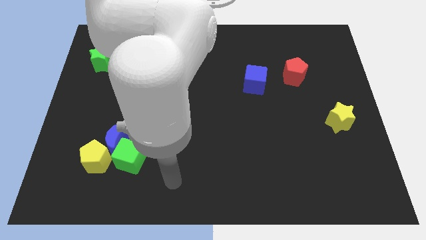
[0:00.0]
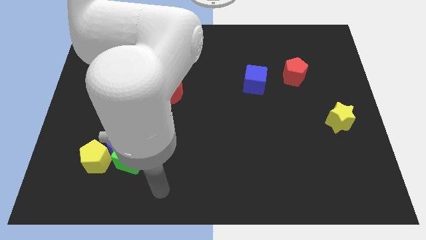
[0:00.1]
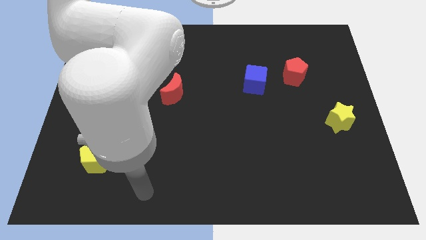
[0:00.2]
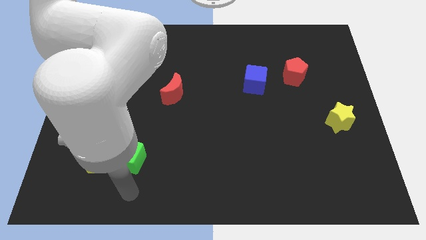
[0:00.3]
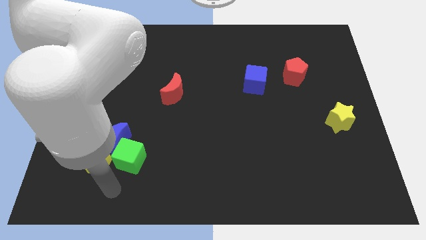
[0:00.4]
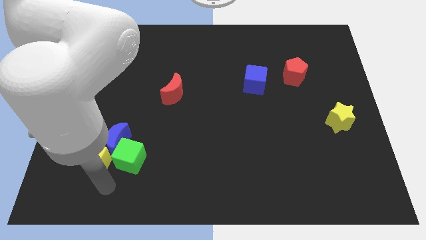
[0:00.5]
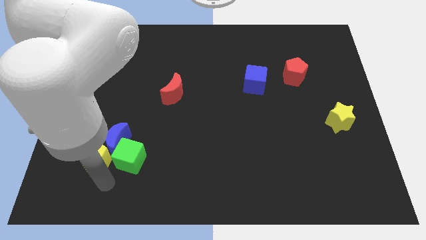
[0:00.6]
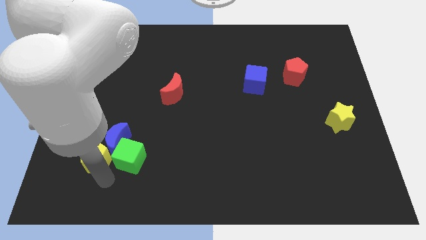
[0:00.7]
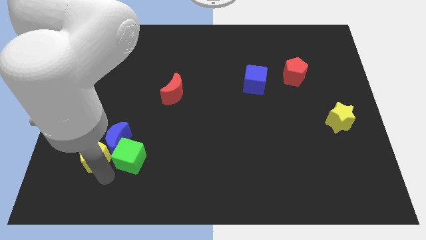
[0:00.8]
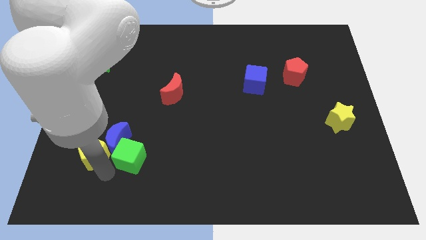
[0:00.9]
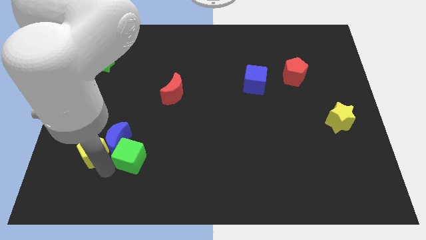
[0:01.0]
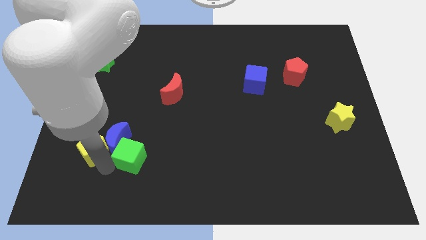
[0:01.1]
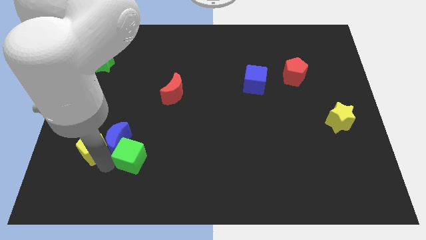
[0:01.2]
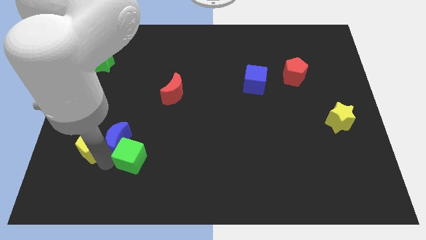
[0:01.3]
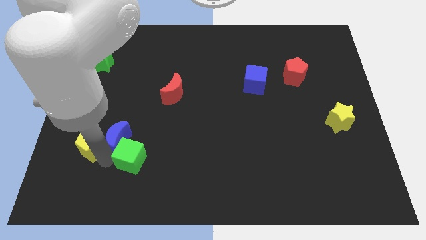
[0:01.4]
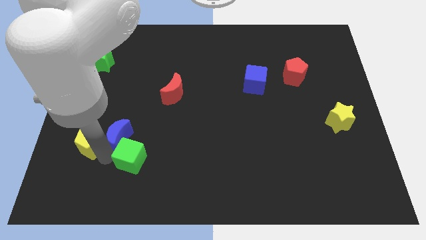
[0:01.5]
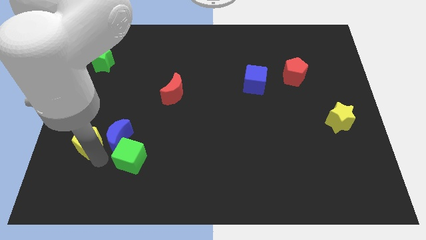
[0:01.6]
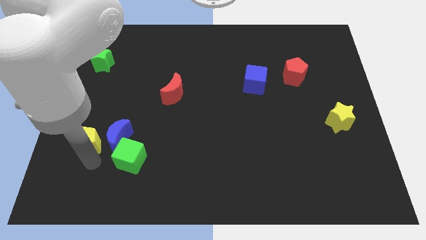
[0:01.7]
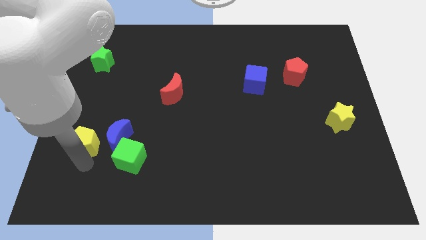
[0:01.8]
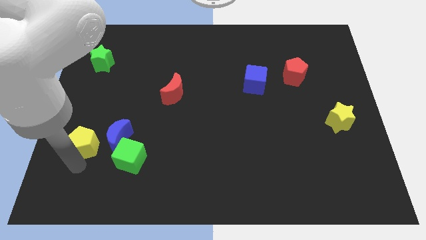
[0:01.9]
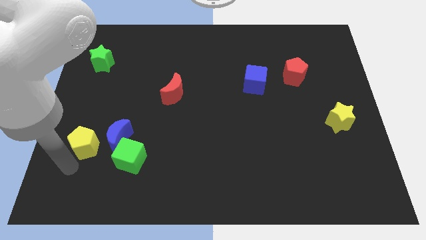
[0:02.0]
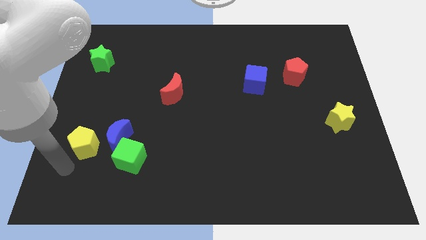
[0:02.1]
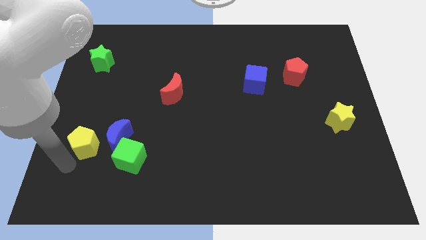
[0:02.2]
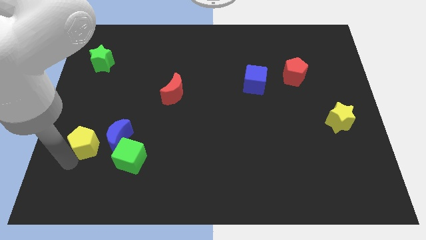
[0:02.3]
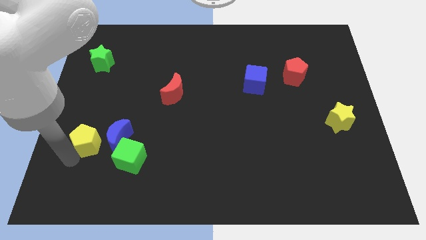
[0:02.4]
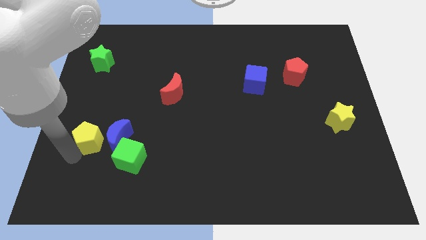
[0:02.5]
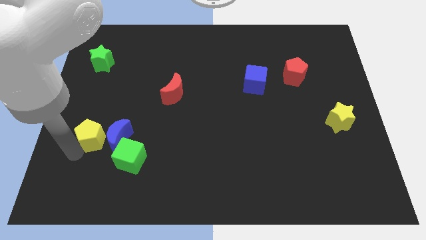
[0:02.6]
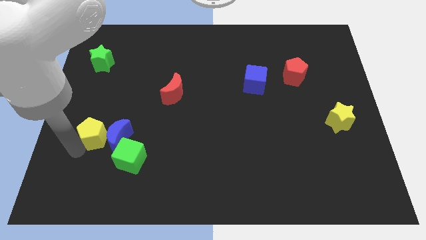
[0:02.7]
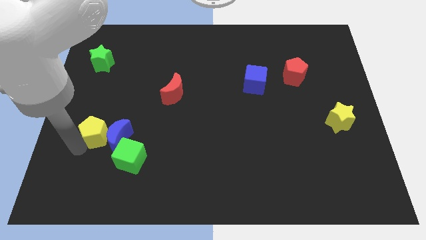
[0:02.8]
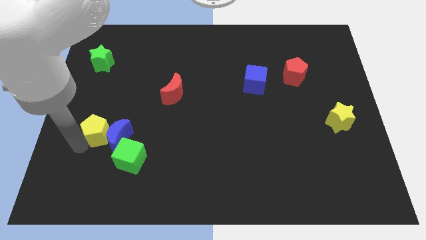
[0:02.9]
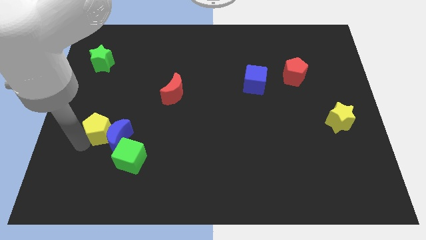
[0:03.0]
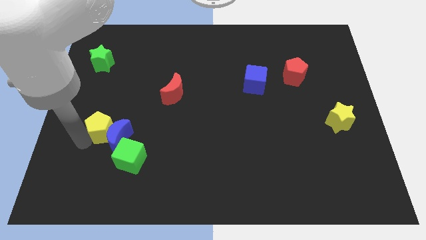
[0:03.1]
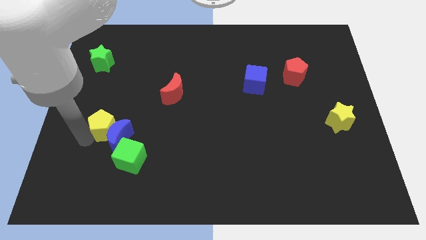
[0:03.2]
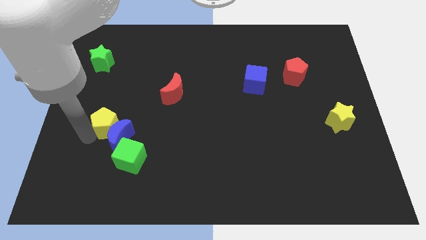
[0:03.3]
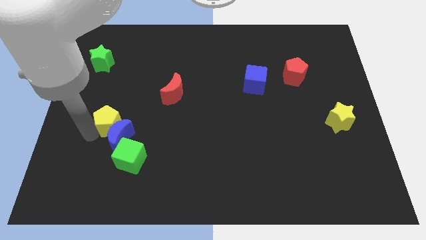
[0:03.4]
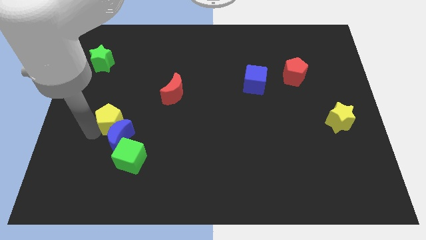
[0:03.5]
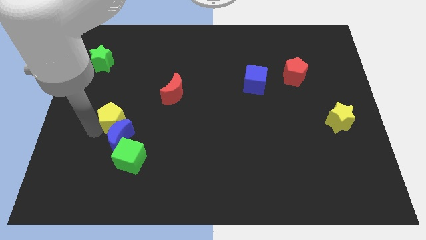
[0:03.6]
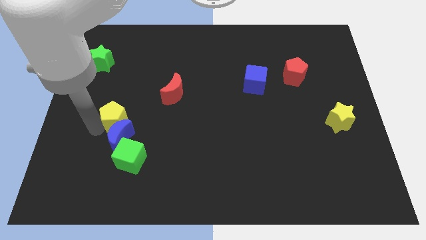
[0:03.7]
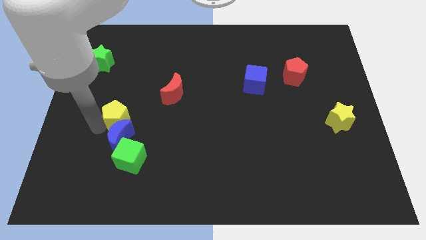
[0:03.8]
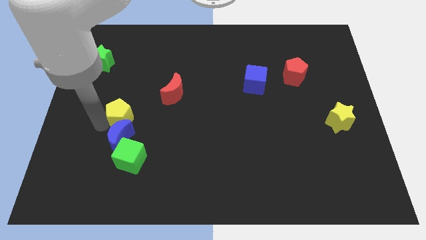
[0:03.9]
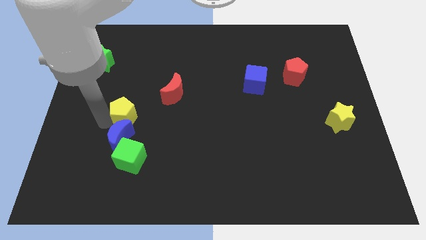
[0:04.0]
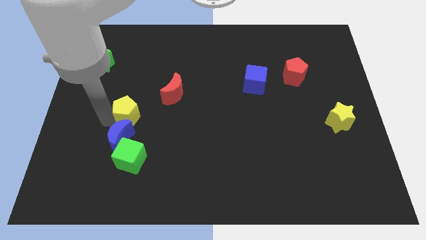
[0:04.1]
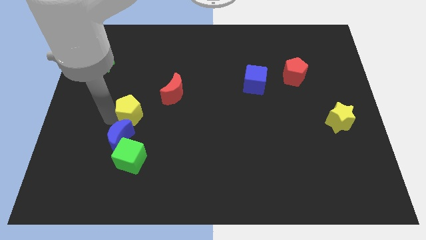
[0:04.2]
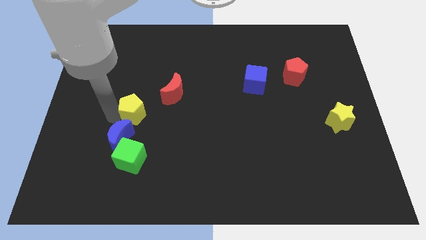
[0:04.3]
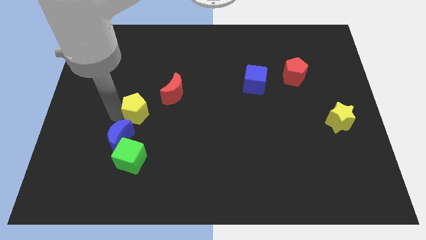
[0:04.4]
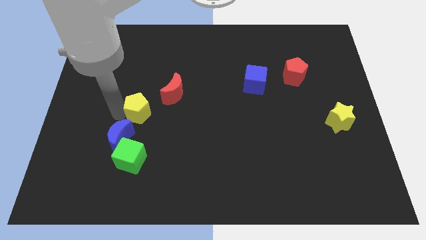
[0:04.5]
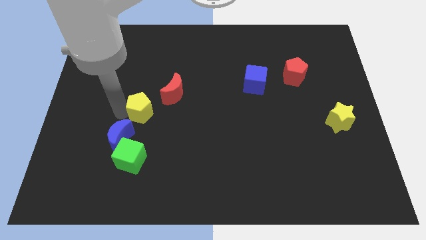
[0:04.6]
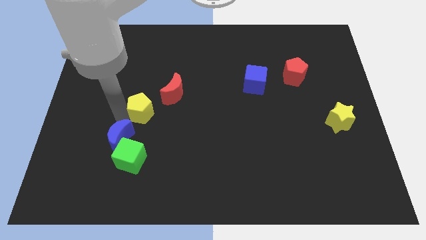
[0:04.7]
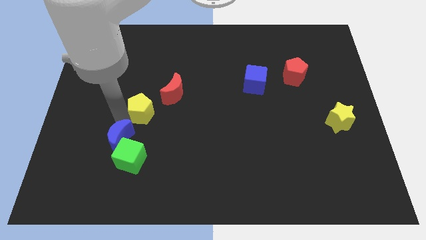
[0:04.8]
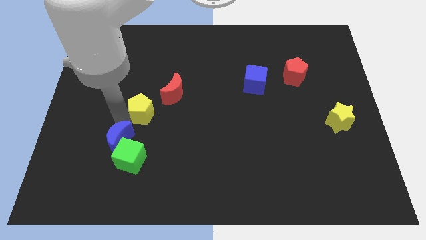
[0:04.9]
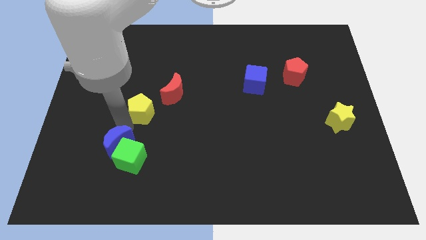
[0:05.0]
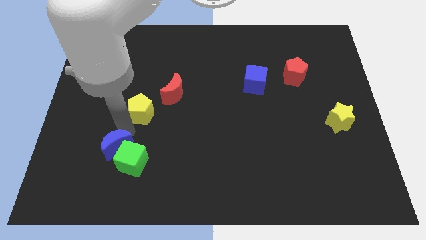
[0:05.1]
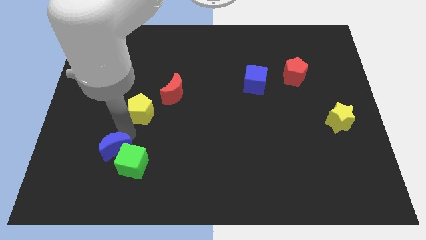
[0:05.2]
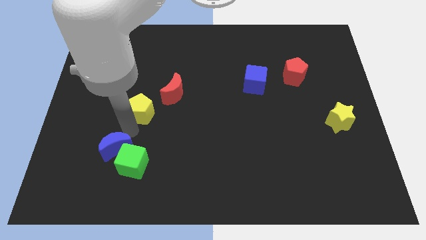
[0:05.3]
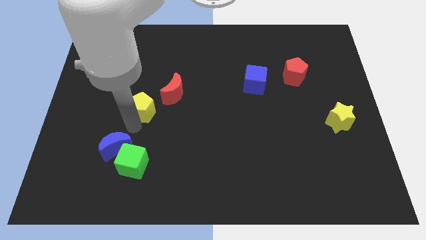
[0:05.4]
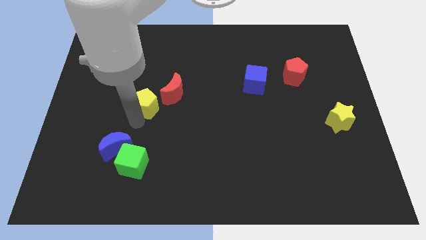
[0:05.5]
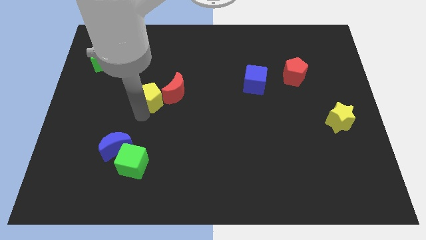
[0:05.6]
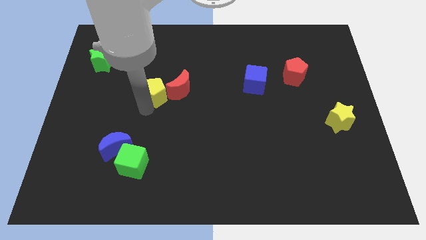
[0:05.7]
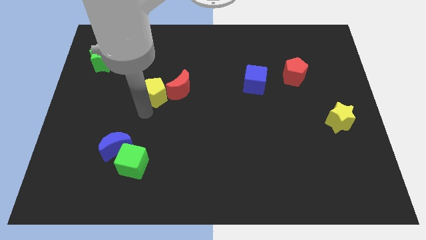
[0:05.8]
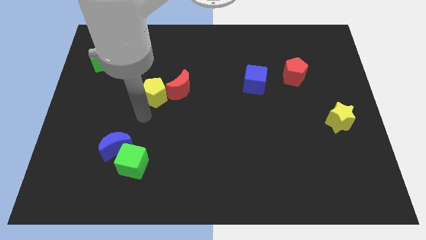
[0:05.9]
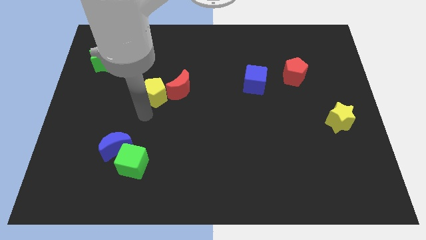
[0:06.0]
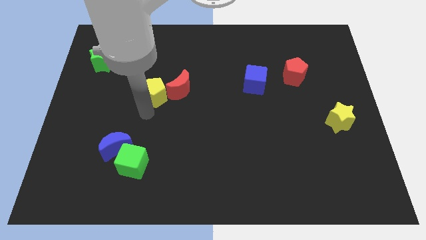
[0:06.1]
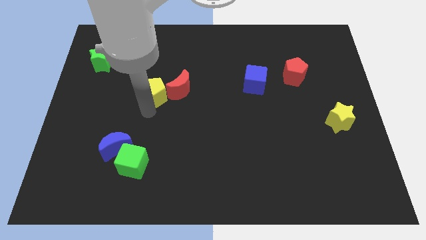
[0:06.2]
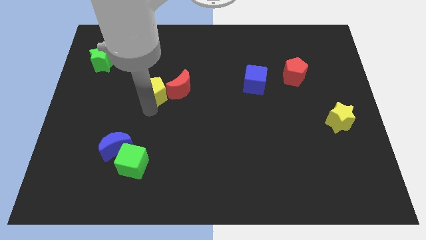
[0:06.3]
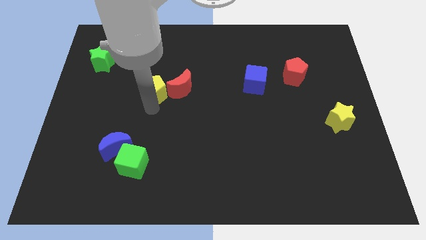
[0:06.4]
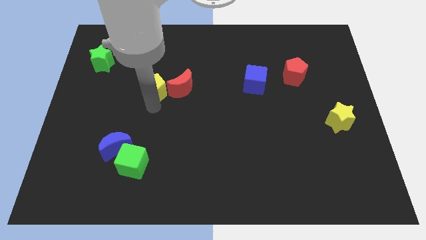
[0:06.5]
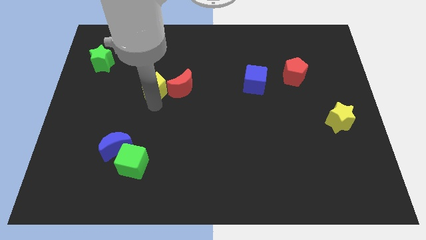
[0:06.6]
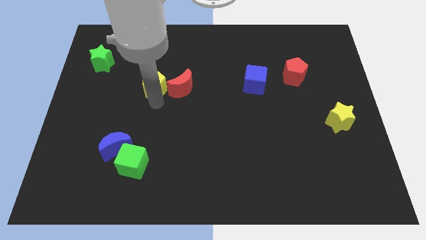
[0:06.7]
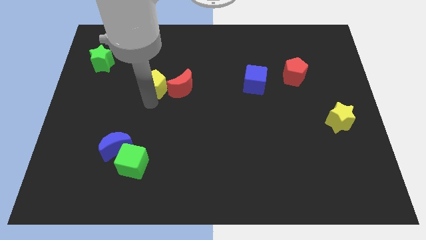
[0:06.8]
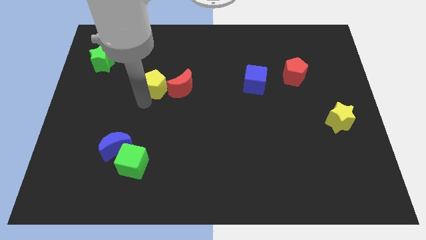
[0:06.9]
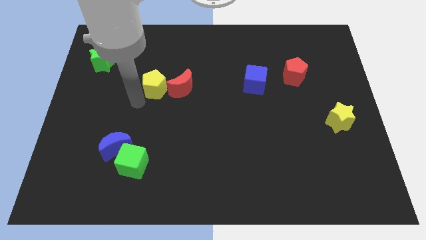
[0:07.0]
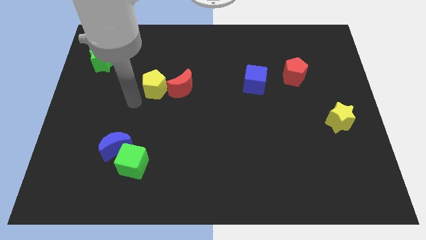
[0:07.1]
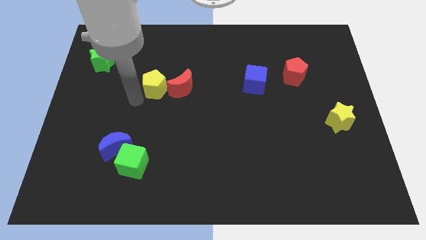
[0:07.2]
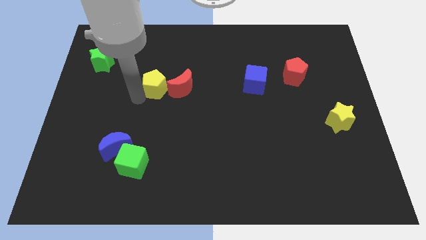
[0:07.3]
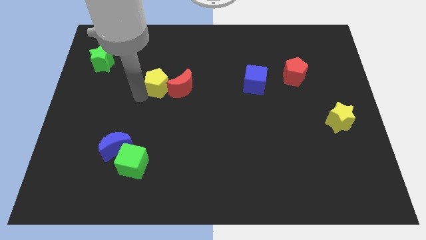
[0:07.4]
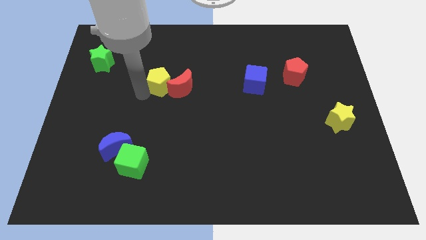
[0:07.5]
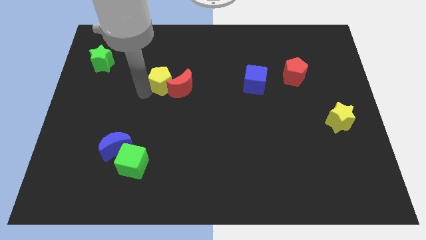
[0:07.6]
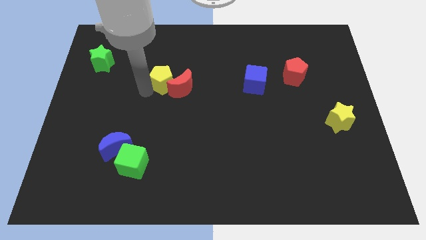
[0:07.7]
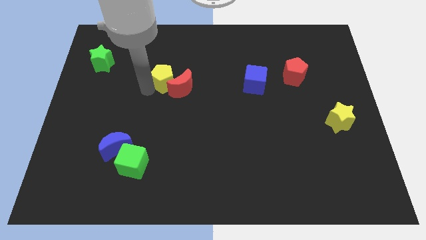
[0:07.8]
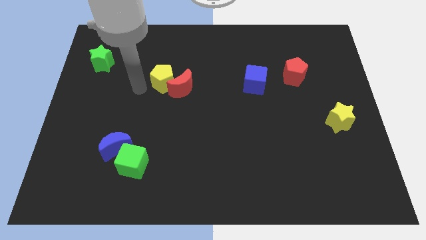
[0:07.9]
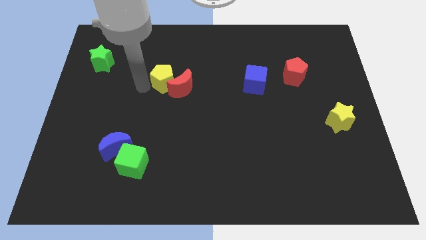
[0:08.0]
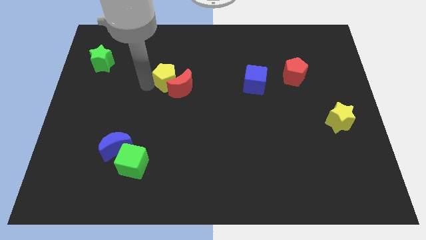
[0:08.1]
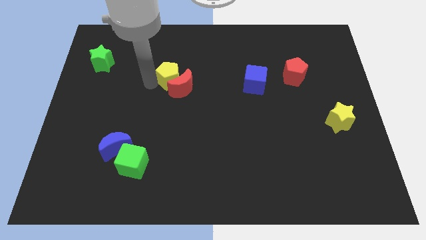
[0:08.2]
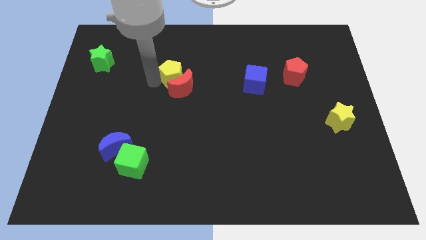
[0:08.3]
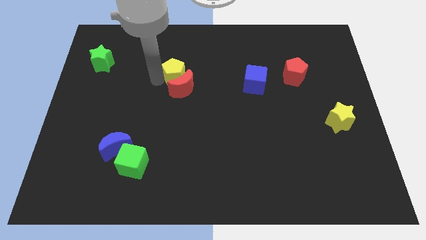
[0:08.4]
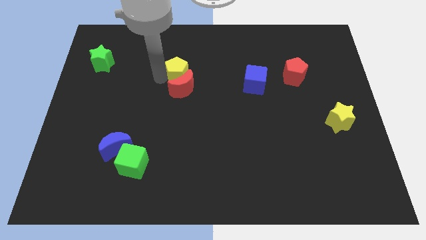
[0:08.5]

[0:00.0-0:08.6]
push the yellow pentagon to the top right side of the red moon
